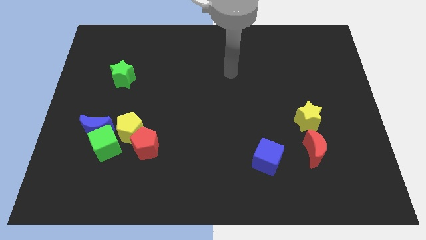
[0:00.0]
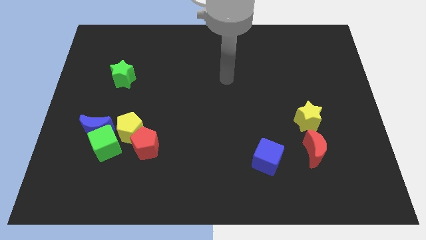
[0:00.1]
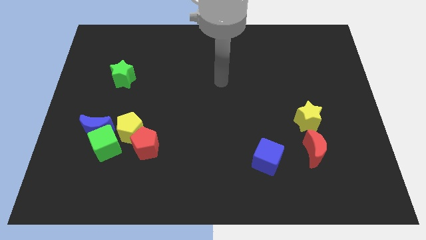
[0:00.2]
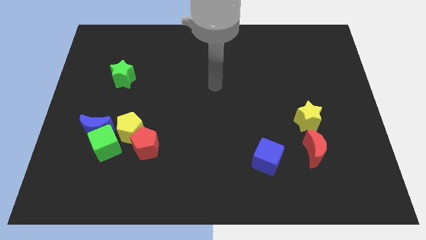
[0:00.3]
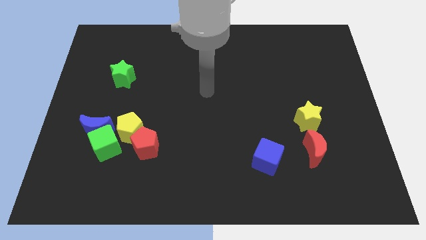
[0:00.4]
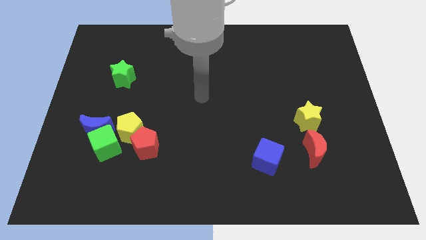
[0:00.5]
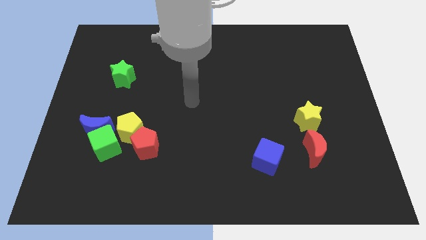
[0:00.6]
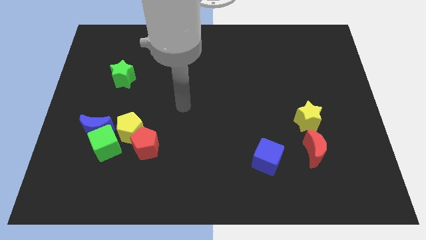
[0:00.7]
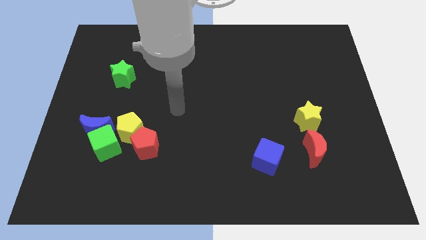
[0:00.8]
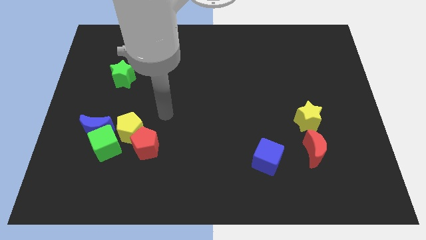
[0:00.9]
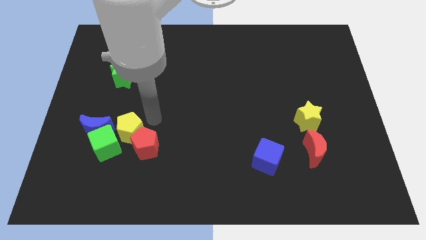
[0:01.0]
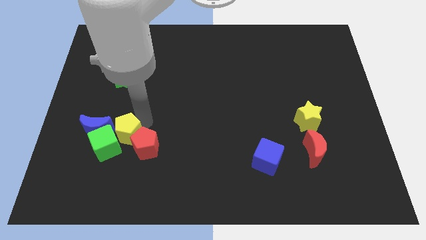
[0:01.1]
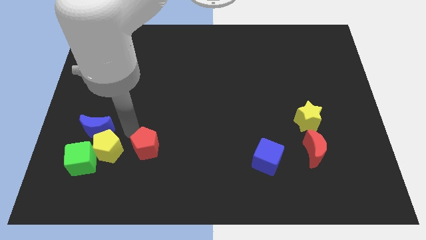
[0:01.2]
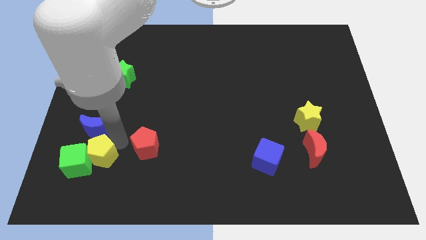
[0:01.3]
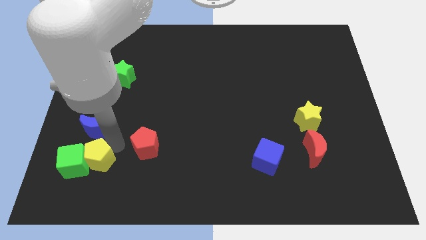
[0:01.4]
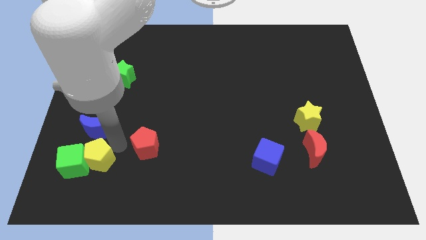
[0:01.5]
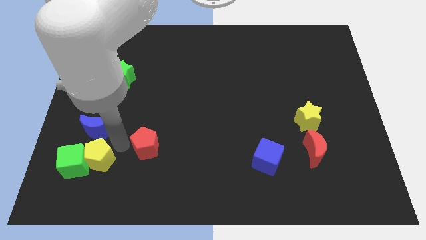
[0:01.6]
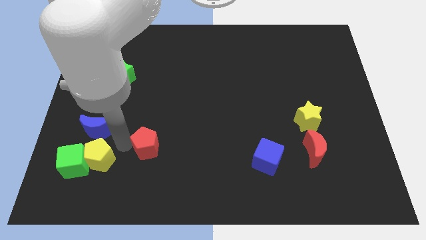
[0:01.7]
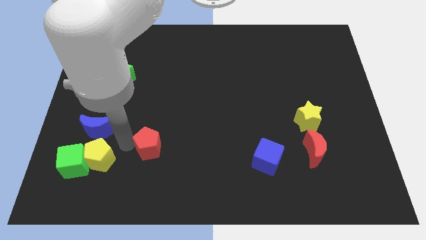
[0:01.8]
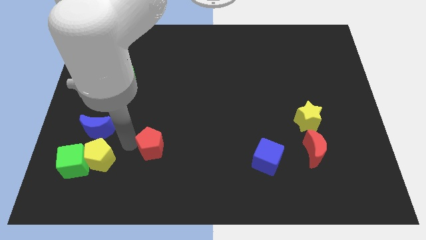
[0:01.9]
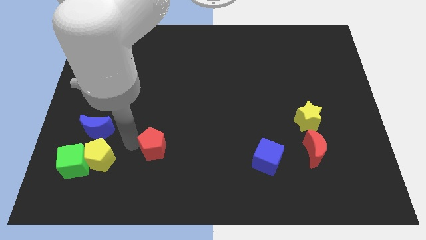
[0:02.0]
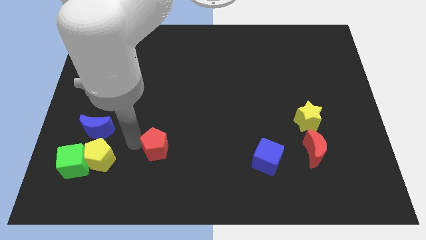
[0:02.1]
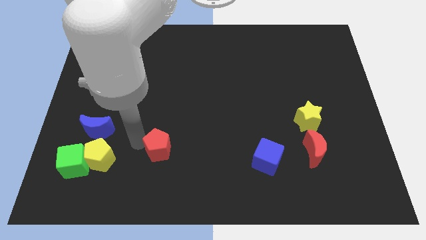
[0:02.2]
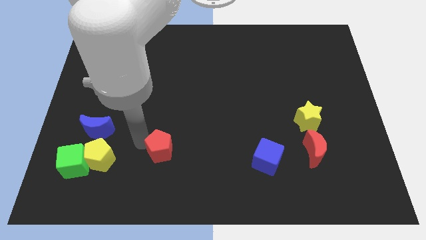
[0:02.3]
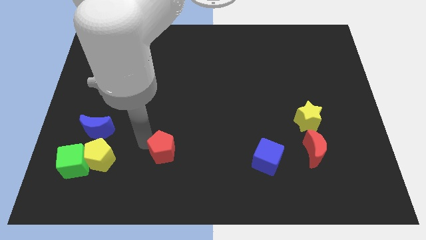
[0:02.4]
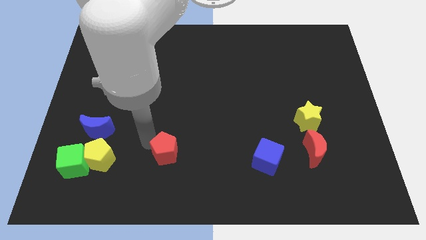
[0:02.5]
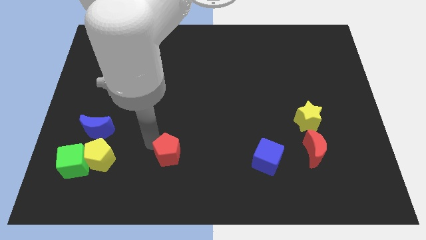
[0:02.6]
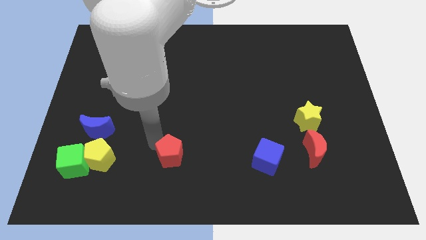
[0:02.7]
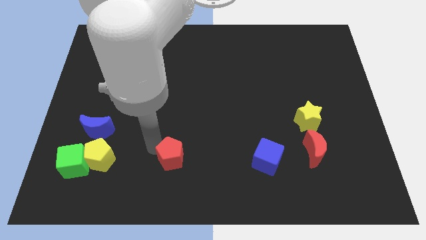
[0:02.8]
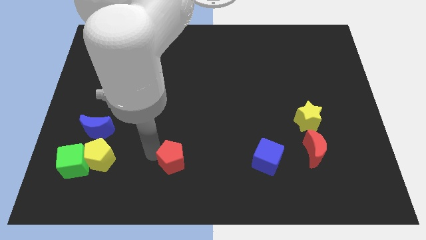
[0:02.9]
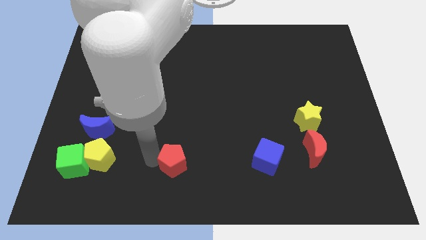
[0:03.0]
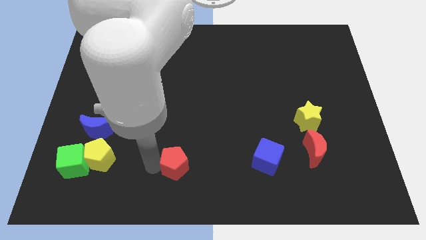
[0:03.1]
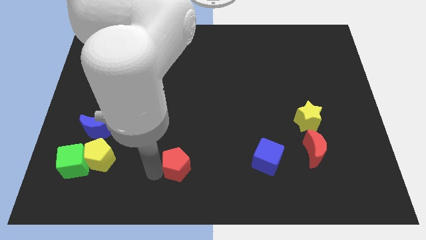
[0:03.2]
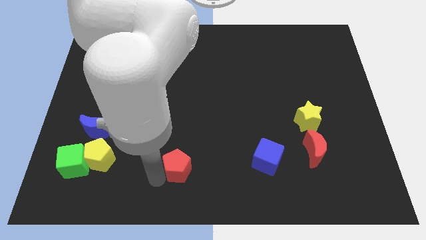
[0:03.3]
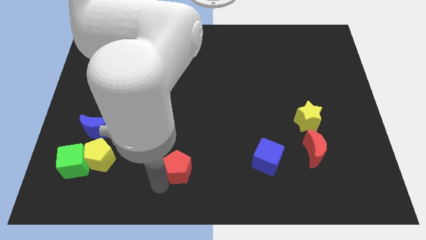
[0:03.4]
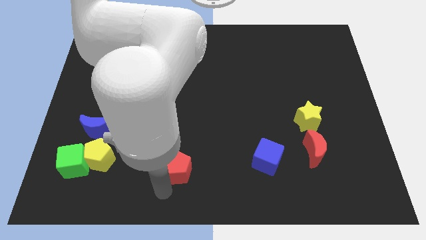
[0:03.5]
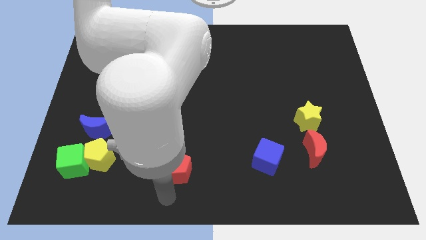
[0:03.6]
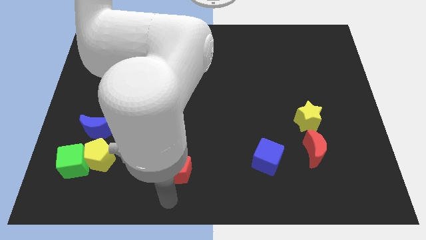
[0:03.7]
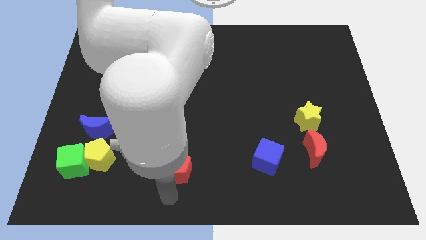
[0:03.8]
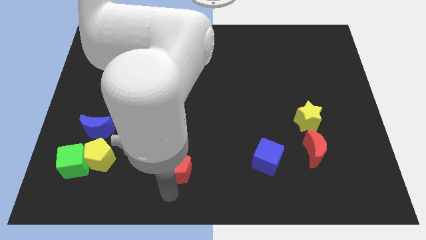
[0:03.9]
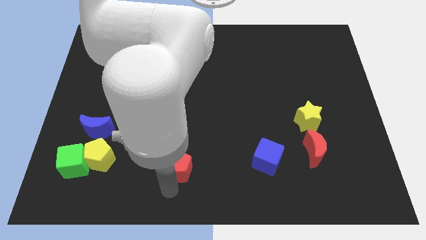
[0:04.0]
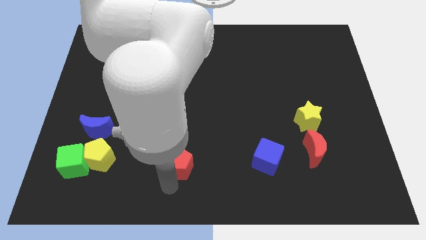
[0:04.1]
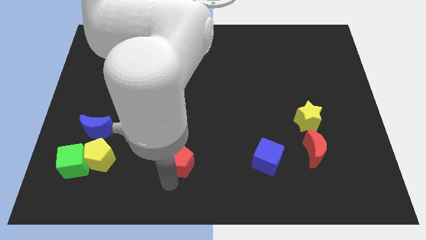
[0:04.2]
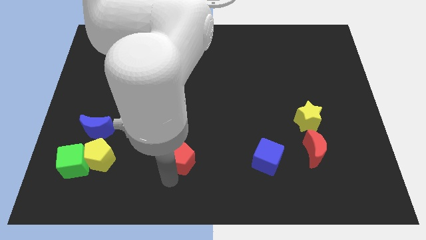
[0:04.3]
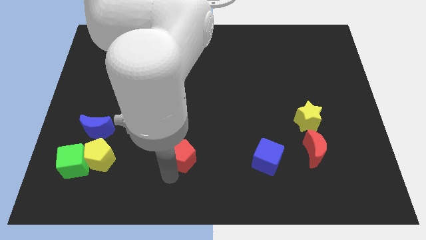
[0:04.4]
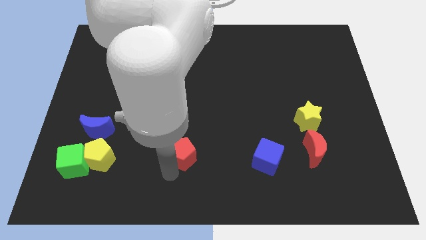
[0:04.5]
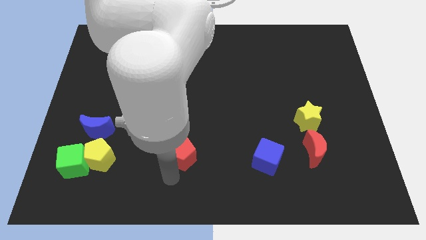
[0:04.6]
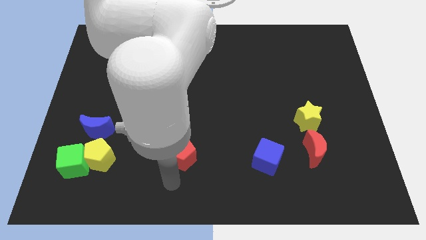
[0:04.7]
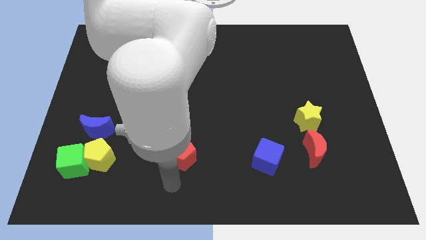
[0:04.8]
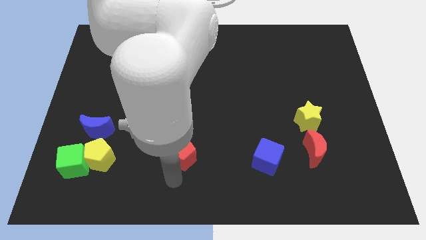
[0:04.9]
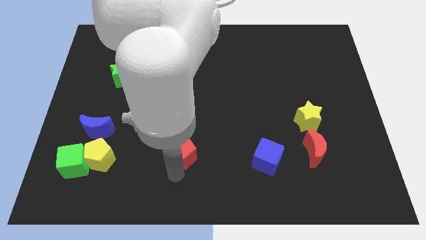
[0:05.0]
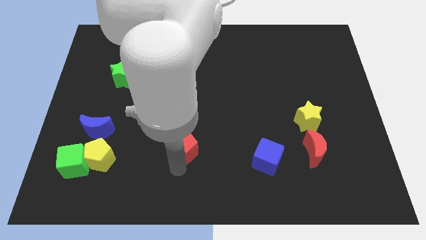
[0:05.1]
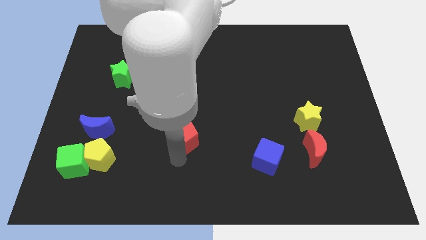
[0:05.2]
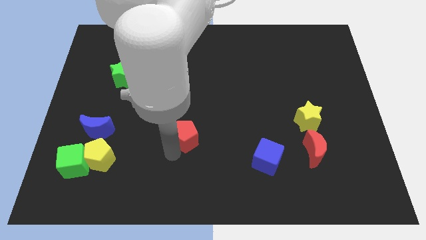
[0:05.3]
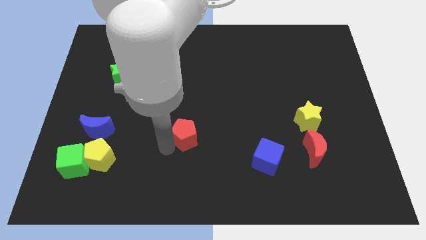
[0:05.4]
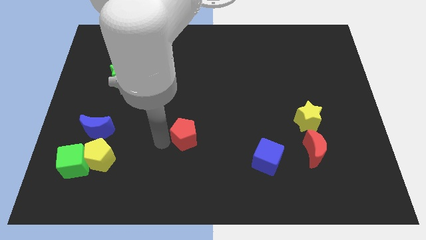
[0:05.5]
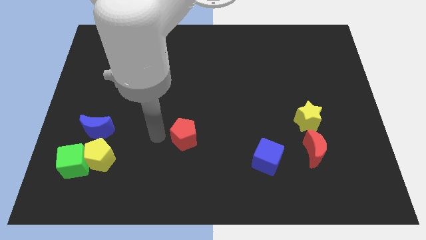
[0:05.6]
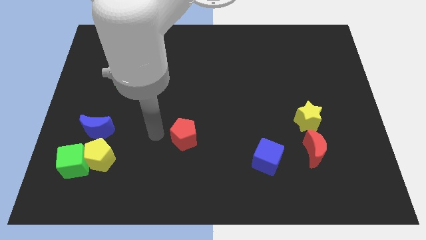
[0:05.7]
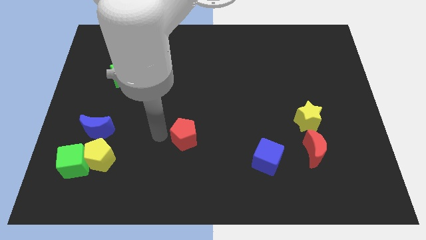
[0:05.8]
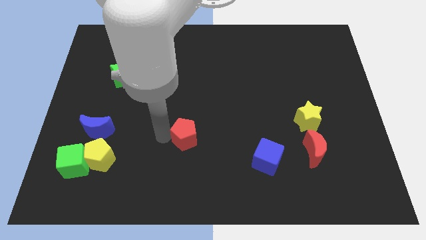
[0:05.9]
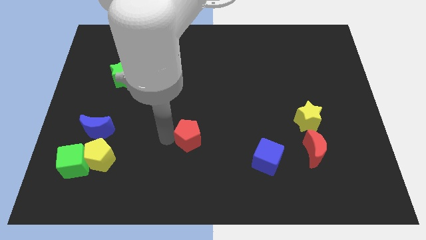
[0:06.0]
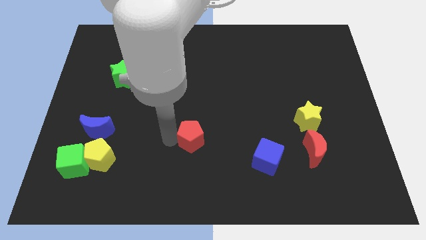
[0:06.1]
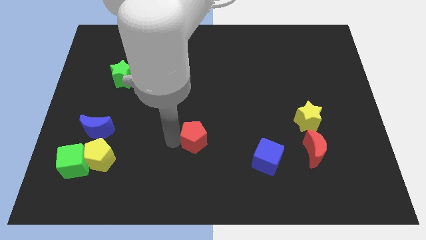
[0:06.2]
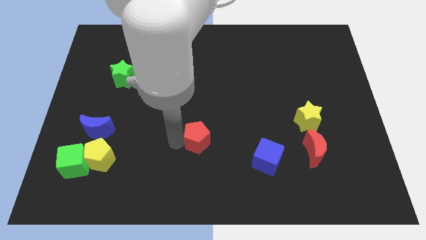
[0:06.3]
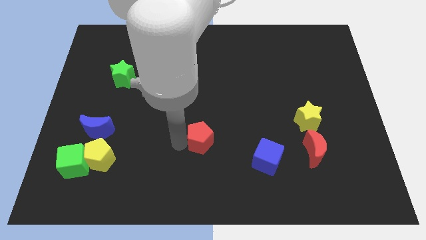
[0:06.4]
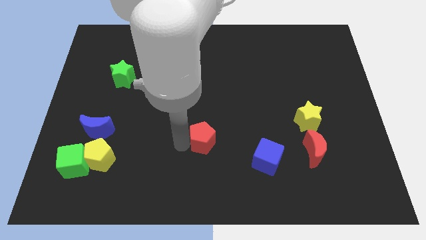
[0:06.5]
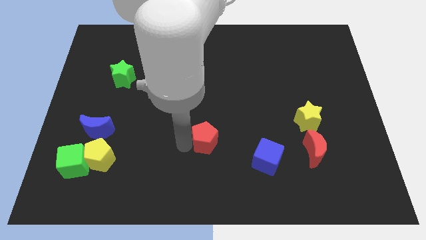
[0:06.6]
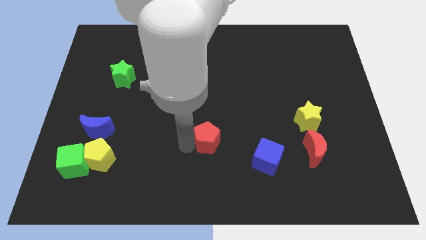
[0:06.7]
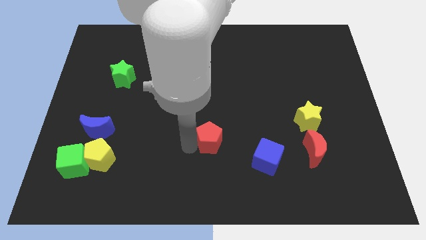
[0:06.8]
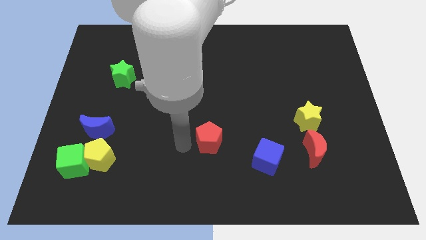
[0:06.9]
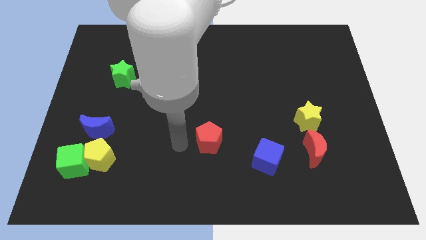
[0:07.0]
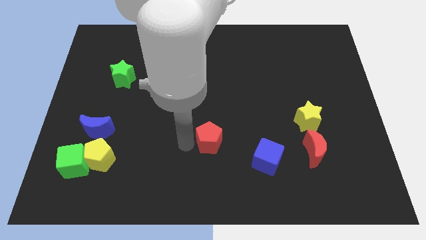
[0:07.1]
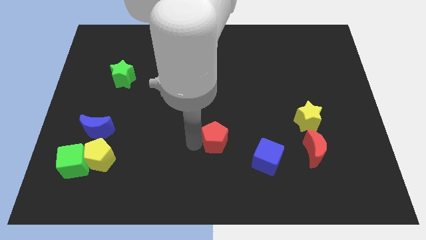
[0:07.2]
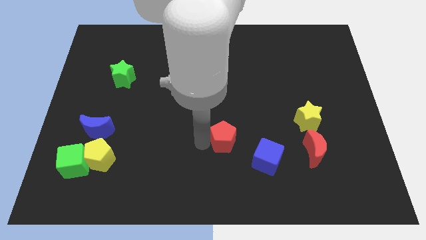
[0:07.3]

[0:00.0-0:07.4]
slide the red pentagon diagonally up and to the left of the blue cube
